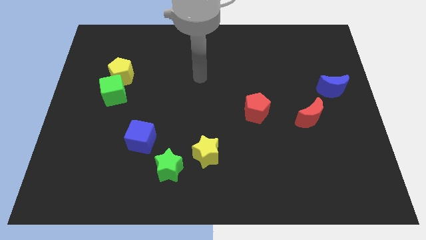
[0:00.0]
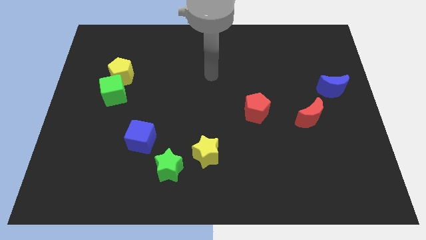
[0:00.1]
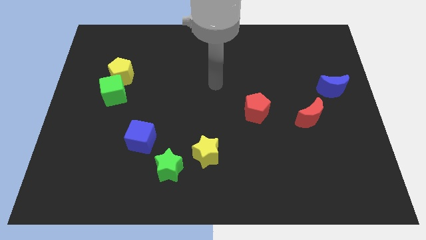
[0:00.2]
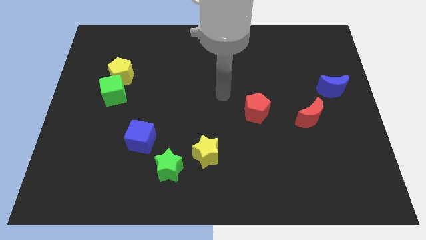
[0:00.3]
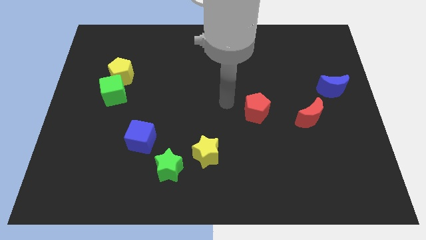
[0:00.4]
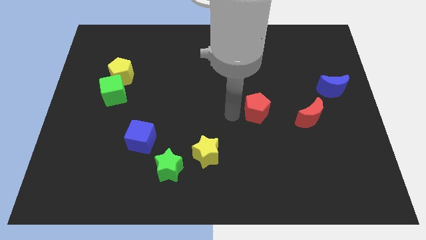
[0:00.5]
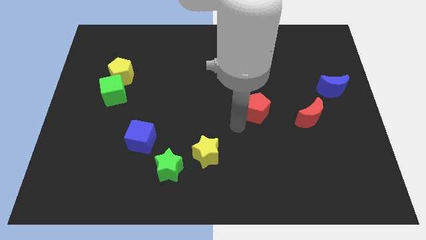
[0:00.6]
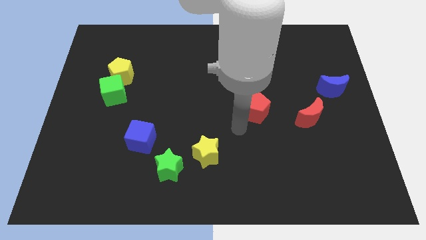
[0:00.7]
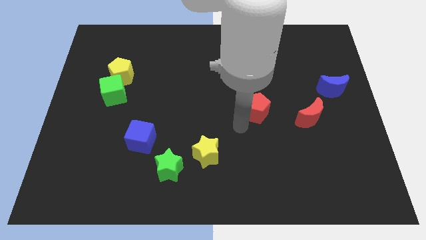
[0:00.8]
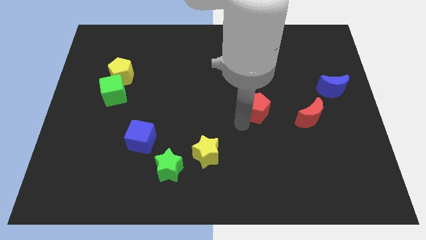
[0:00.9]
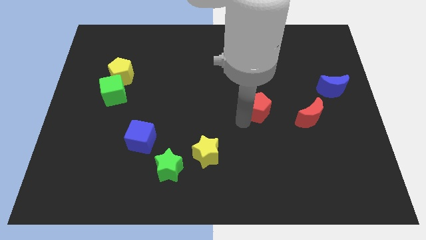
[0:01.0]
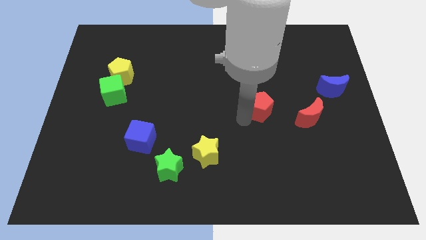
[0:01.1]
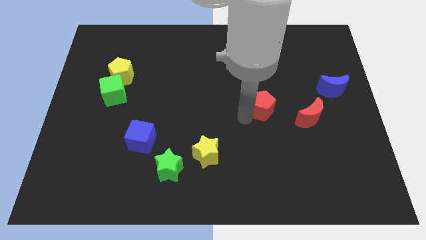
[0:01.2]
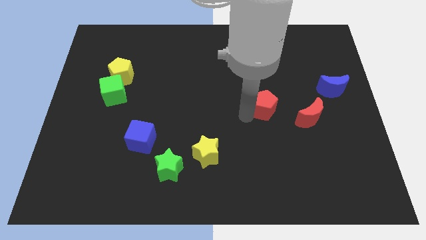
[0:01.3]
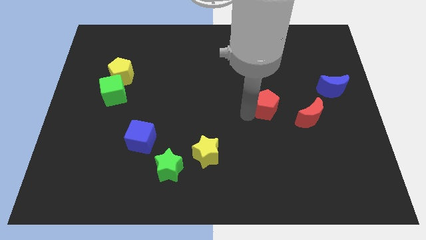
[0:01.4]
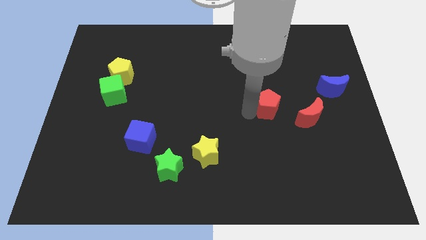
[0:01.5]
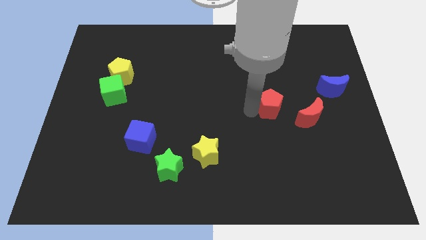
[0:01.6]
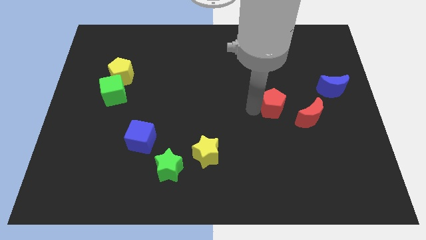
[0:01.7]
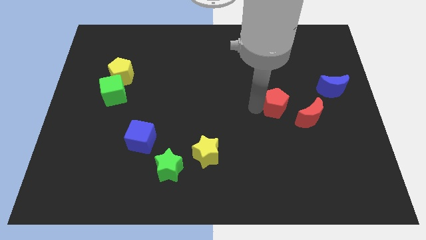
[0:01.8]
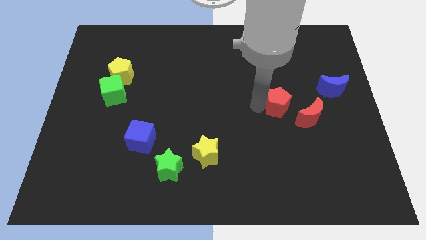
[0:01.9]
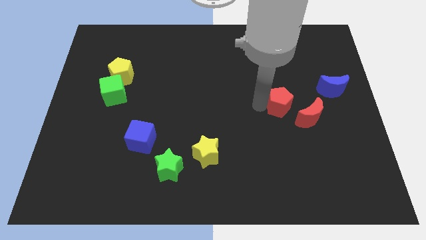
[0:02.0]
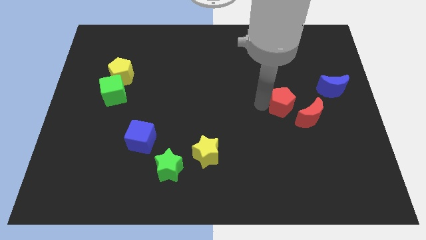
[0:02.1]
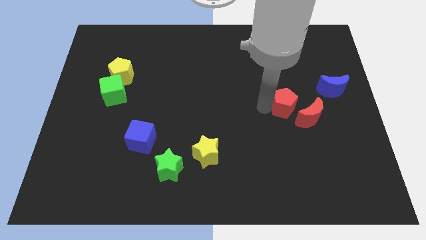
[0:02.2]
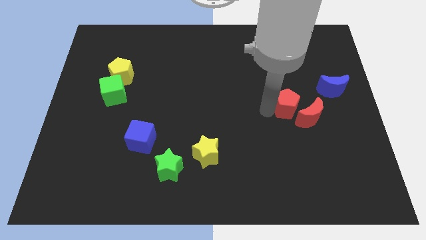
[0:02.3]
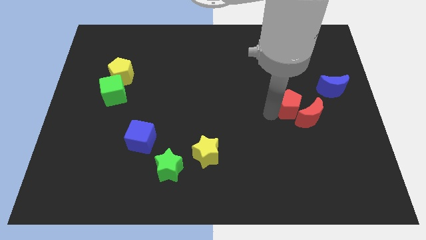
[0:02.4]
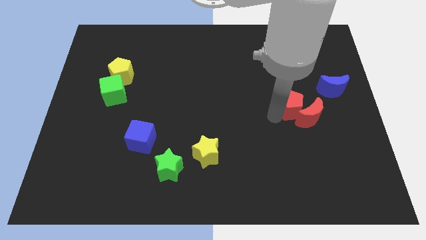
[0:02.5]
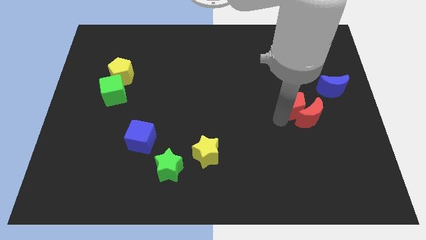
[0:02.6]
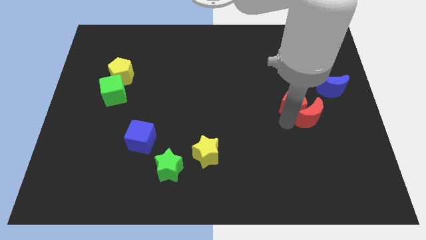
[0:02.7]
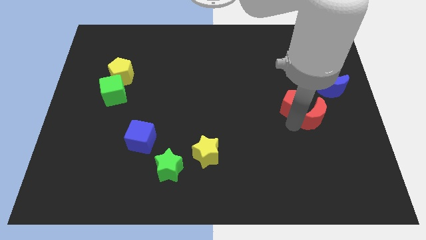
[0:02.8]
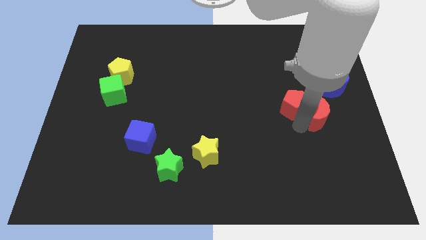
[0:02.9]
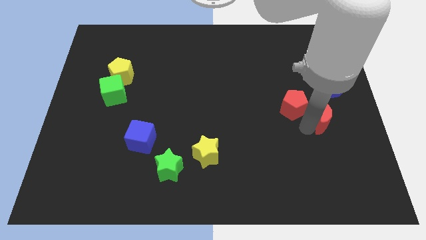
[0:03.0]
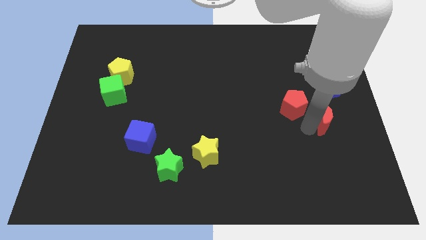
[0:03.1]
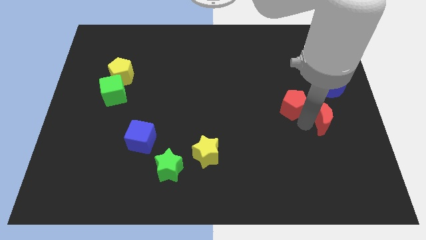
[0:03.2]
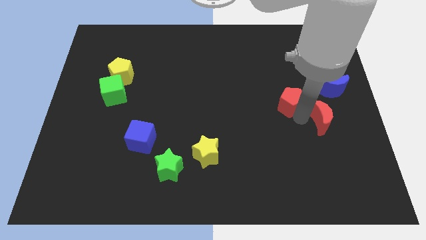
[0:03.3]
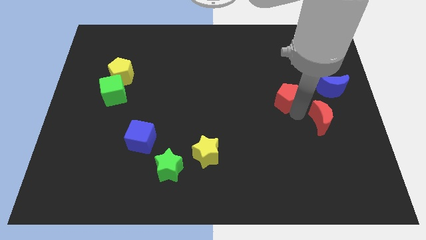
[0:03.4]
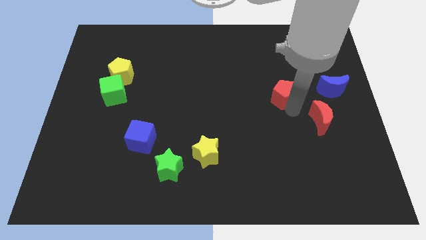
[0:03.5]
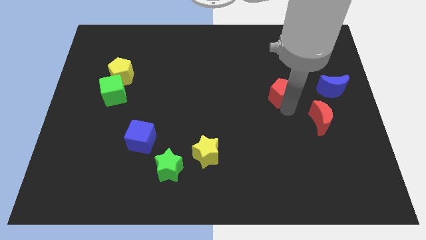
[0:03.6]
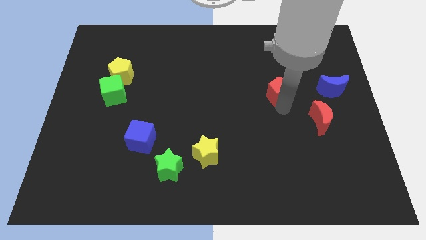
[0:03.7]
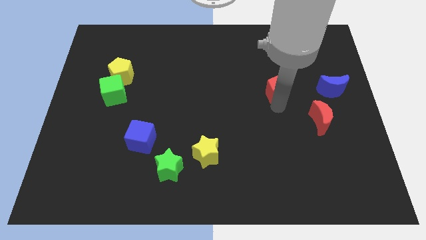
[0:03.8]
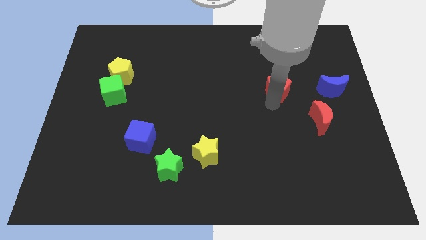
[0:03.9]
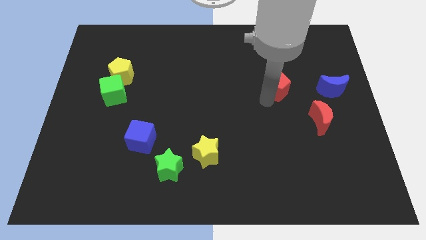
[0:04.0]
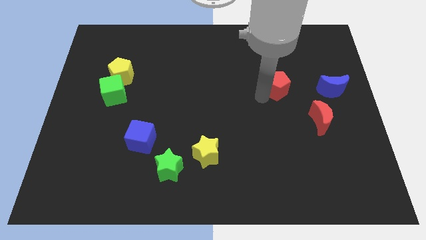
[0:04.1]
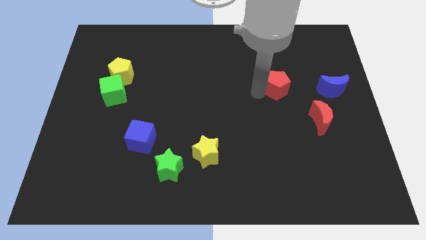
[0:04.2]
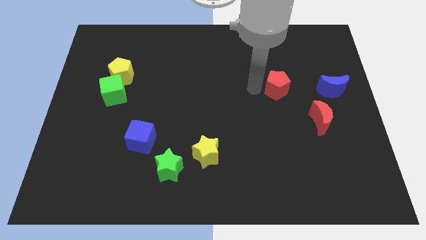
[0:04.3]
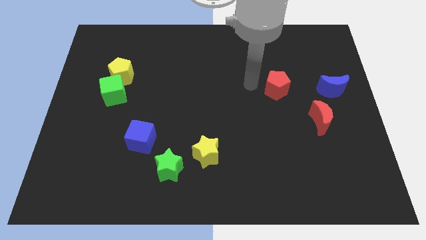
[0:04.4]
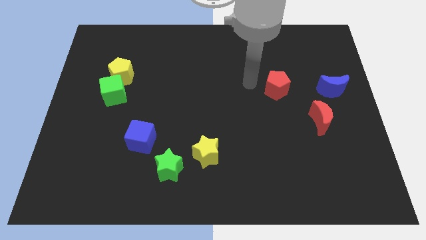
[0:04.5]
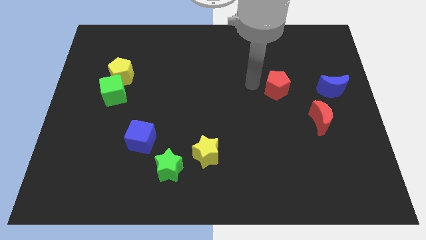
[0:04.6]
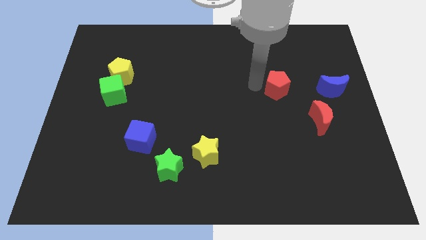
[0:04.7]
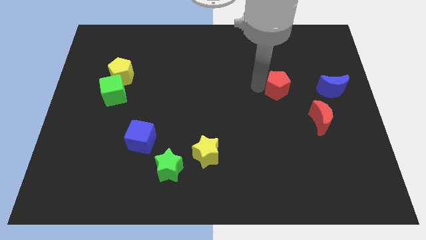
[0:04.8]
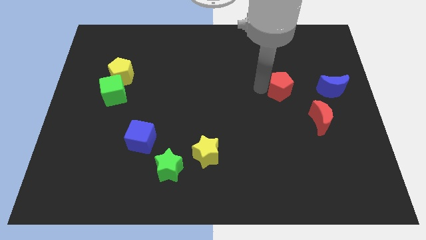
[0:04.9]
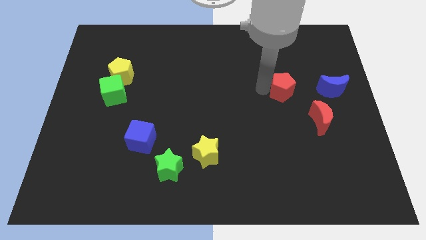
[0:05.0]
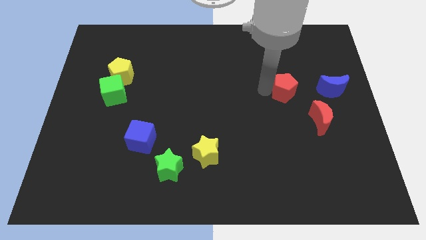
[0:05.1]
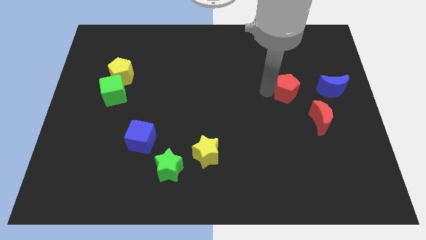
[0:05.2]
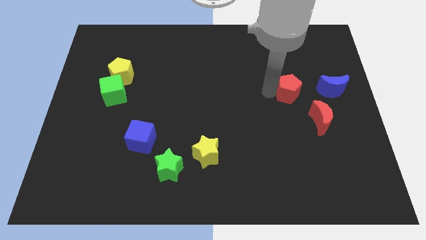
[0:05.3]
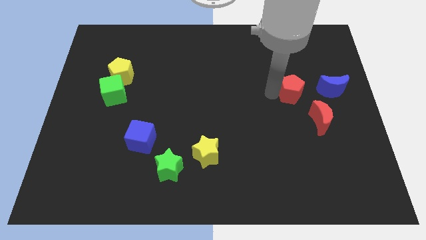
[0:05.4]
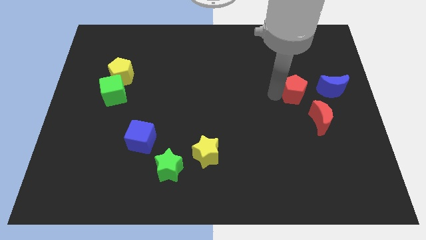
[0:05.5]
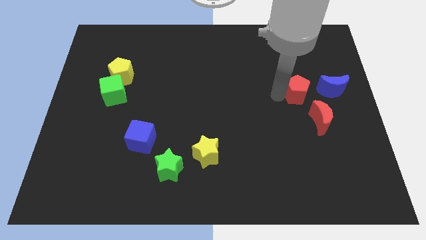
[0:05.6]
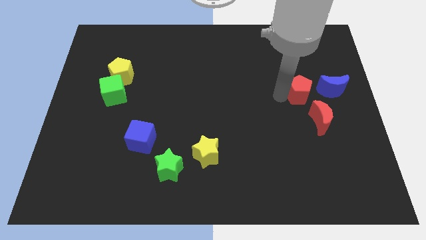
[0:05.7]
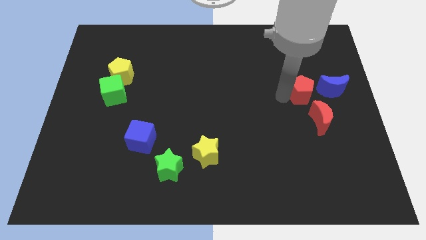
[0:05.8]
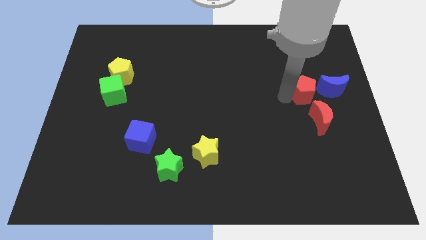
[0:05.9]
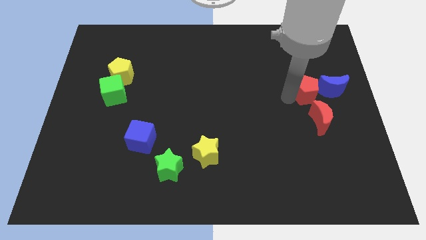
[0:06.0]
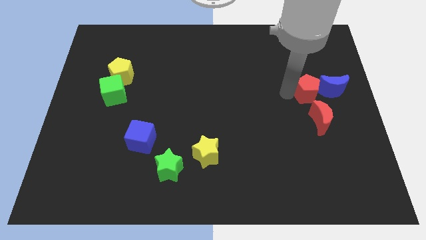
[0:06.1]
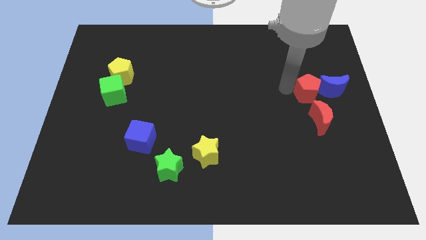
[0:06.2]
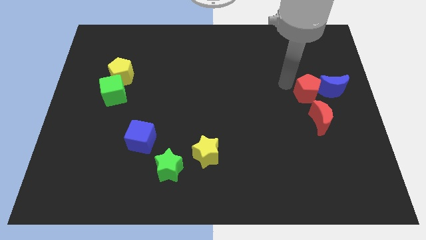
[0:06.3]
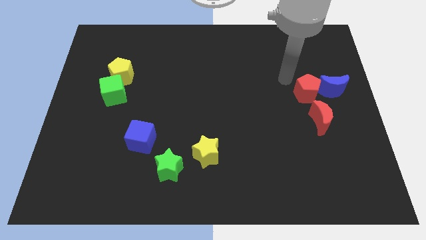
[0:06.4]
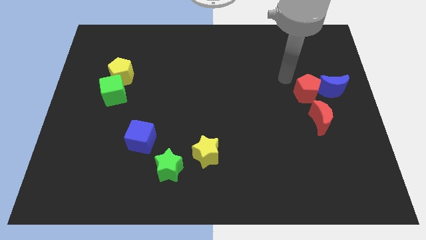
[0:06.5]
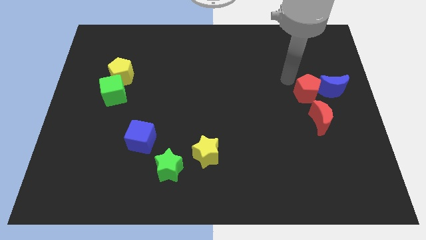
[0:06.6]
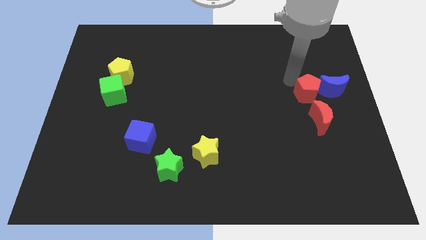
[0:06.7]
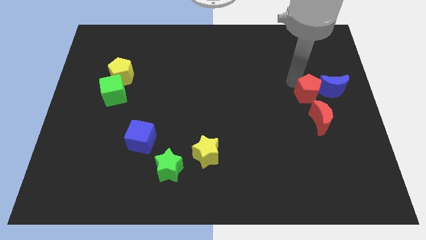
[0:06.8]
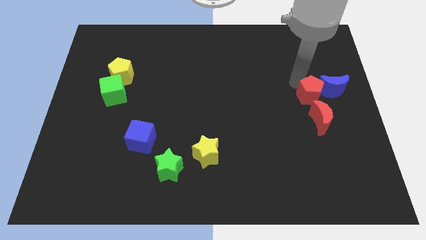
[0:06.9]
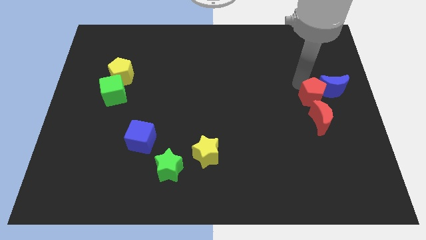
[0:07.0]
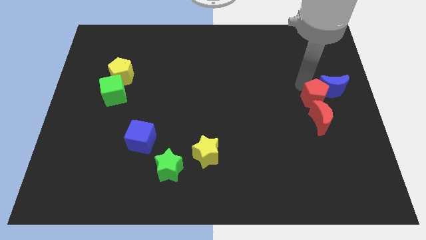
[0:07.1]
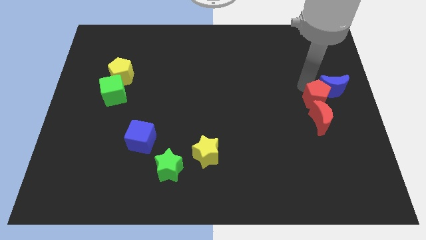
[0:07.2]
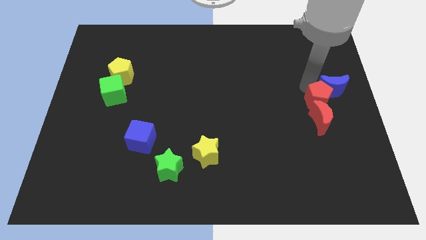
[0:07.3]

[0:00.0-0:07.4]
put the red pentagon to the right side
